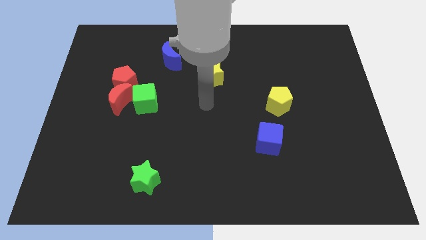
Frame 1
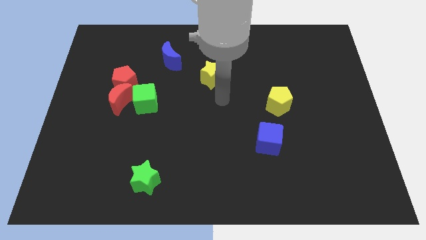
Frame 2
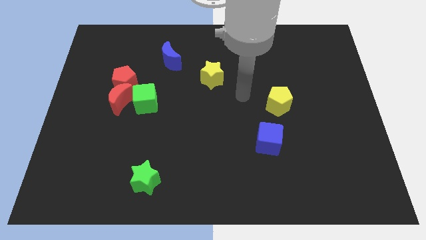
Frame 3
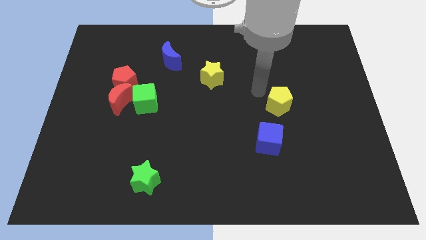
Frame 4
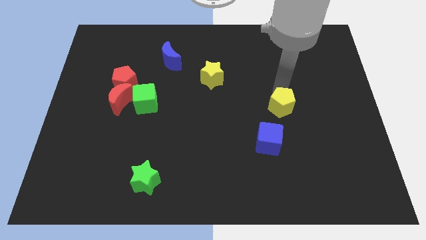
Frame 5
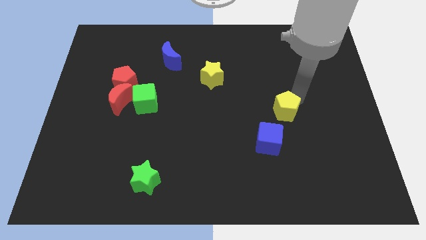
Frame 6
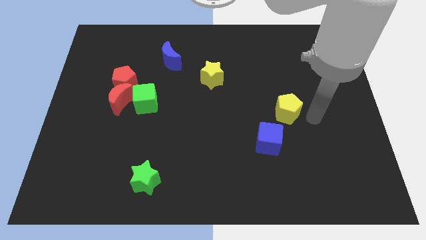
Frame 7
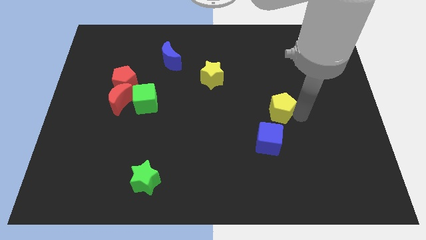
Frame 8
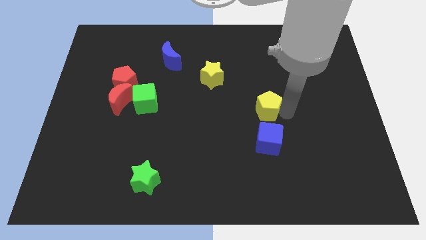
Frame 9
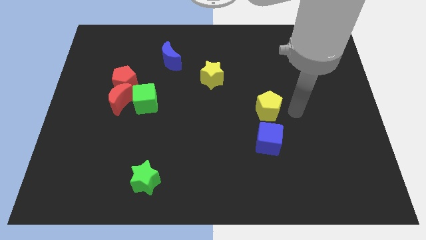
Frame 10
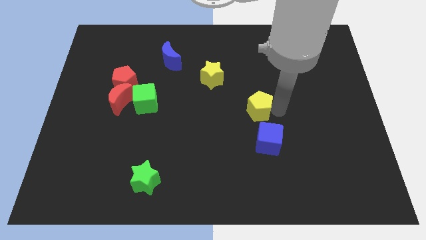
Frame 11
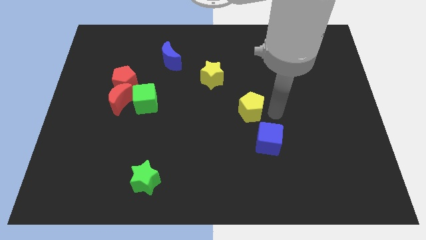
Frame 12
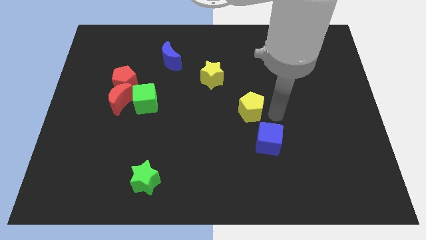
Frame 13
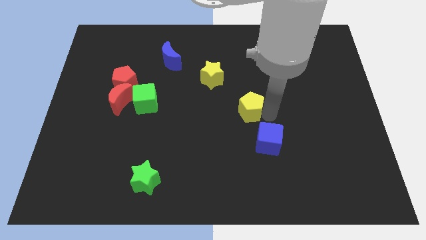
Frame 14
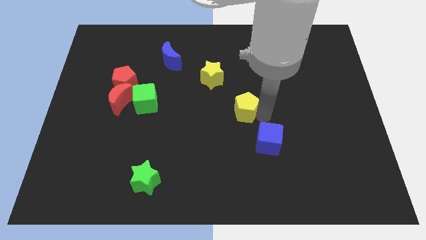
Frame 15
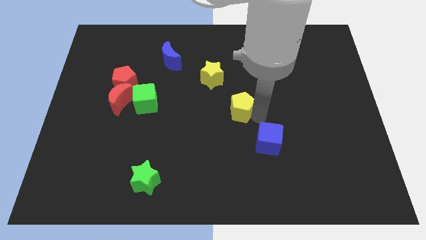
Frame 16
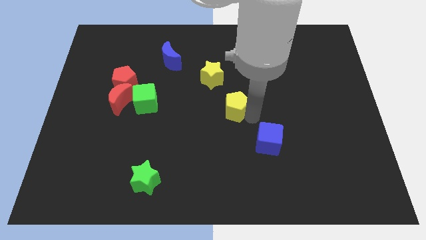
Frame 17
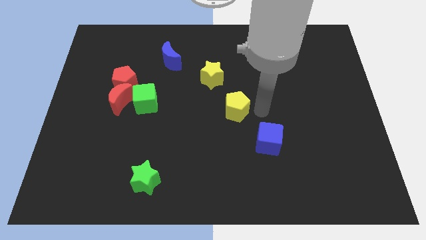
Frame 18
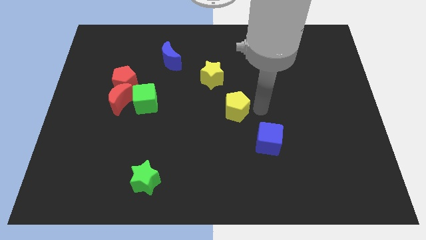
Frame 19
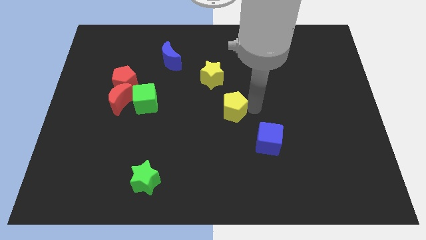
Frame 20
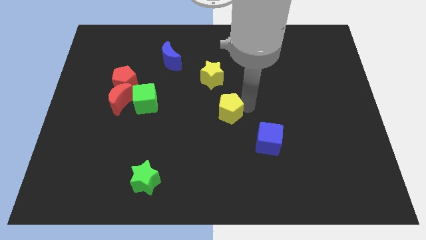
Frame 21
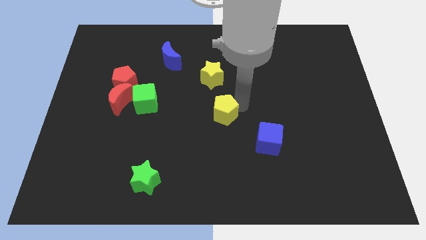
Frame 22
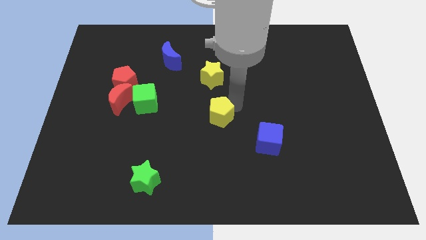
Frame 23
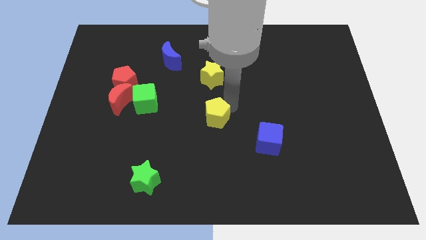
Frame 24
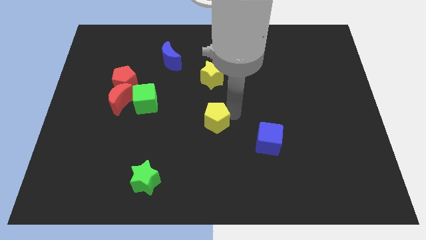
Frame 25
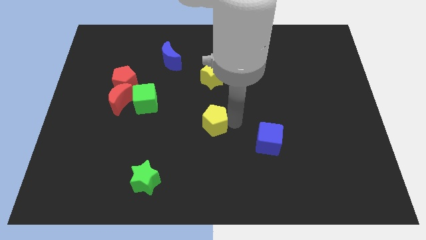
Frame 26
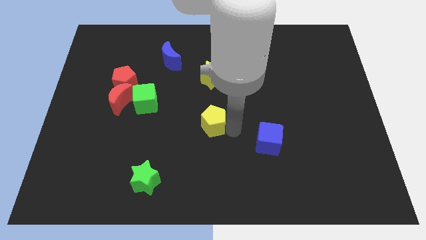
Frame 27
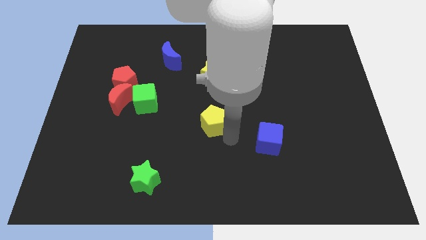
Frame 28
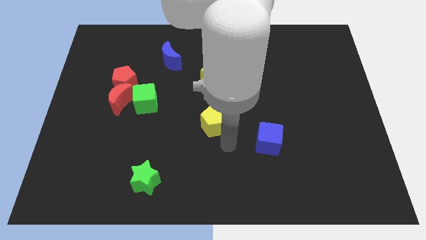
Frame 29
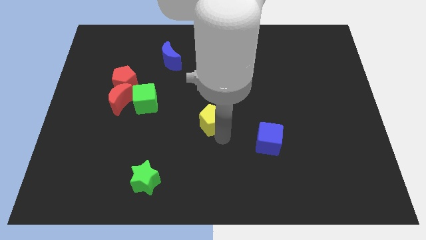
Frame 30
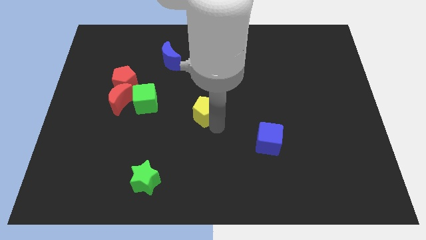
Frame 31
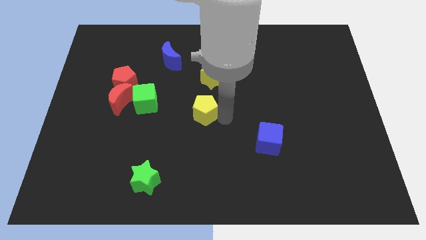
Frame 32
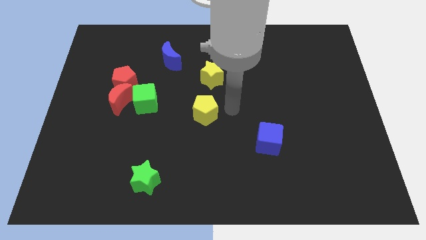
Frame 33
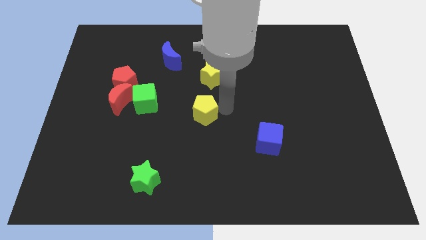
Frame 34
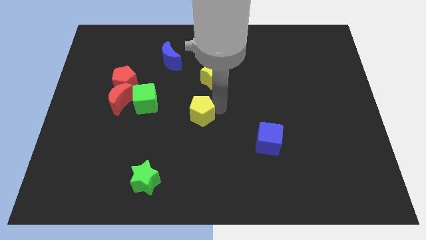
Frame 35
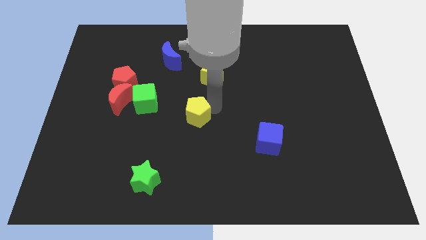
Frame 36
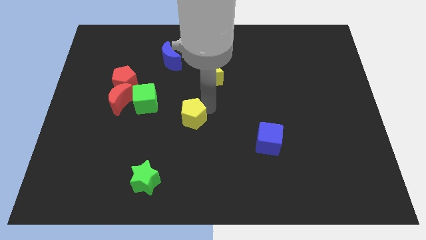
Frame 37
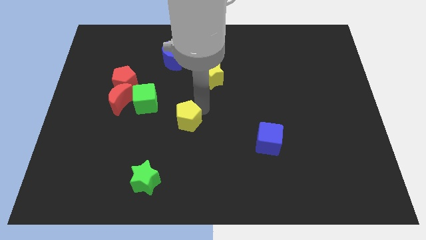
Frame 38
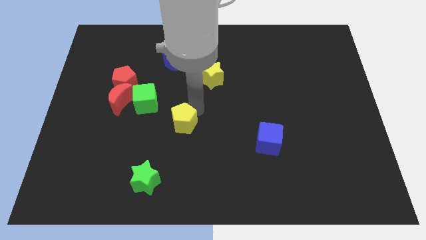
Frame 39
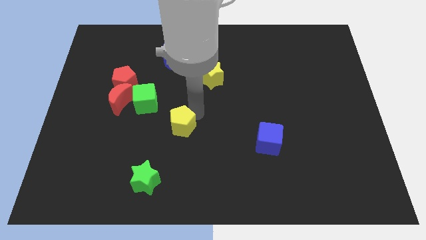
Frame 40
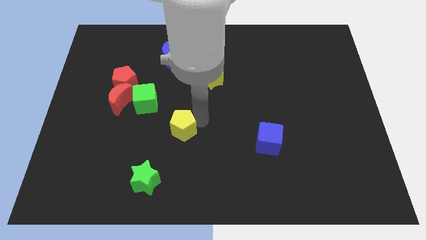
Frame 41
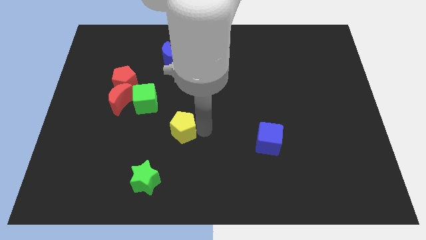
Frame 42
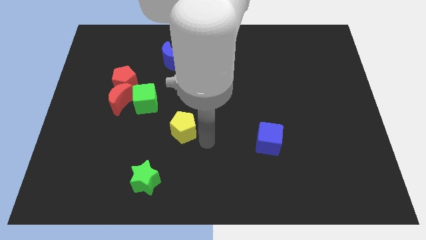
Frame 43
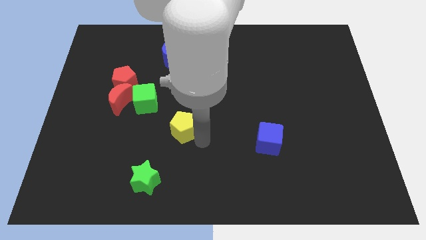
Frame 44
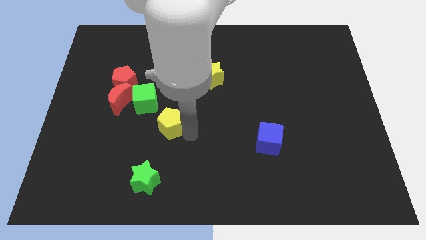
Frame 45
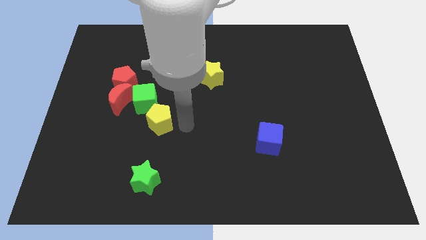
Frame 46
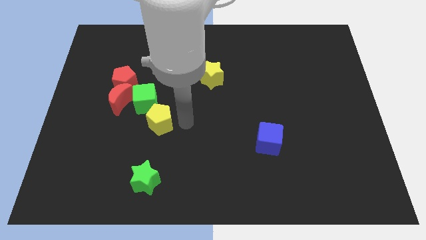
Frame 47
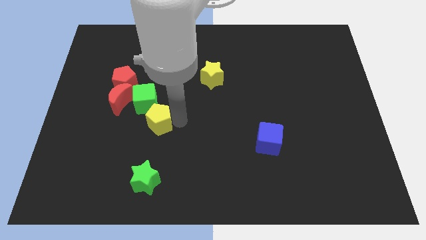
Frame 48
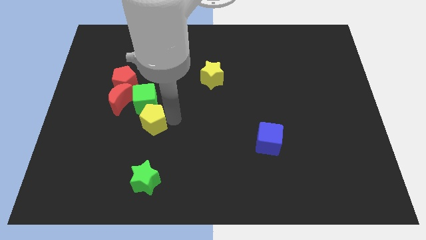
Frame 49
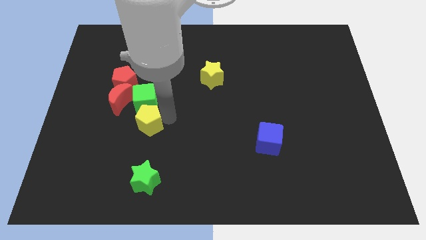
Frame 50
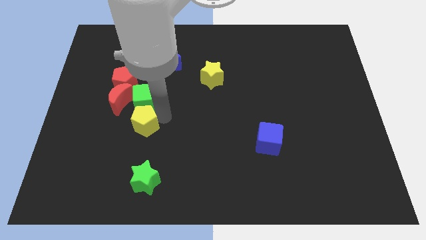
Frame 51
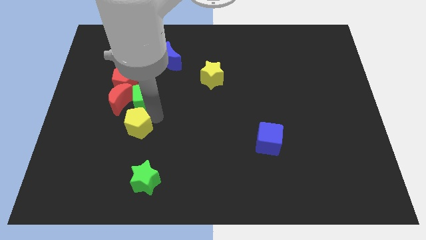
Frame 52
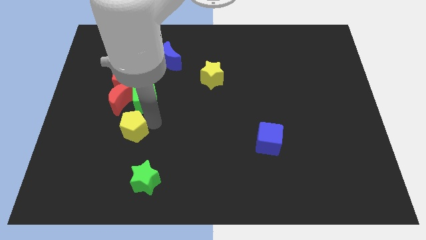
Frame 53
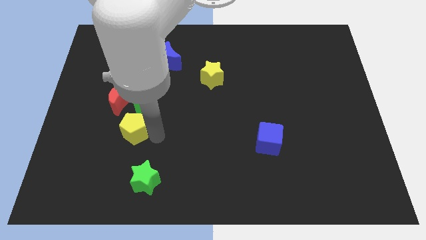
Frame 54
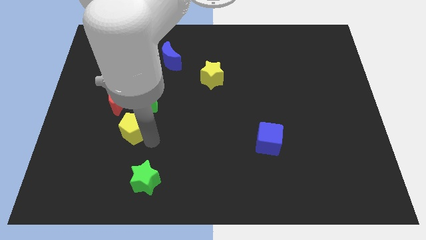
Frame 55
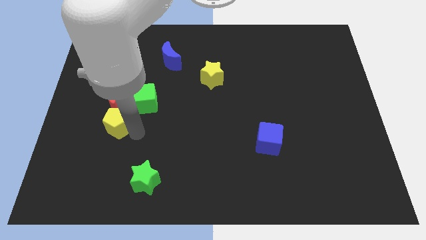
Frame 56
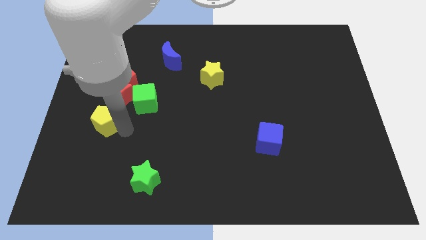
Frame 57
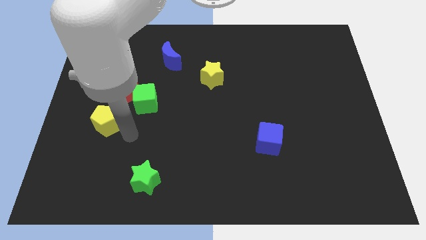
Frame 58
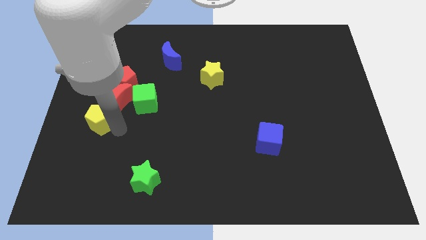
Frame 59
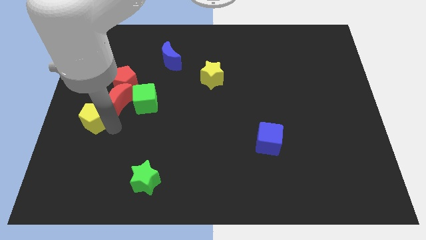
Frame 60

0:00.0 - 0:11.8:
move the yellow pentagon to the left side

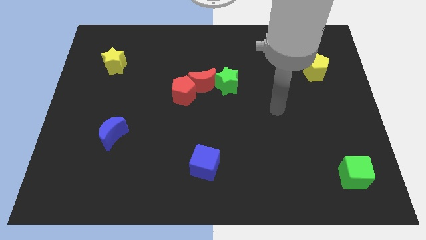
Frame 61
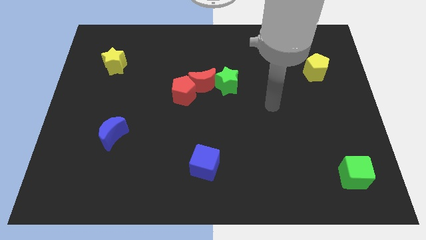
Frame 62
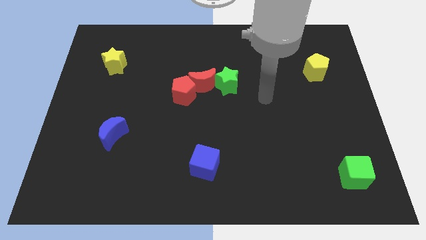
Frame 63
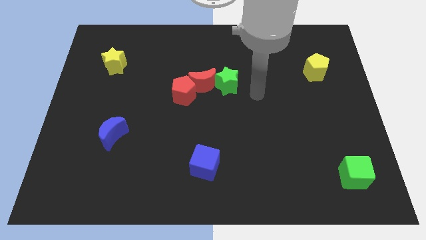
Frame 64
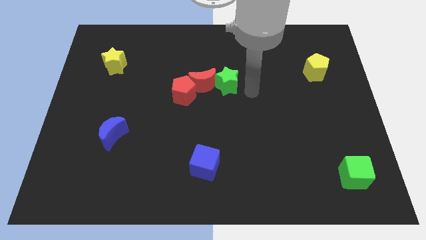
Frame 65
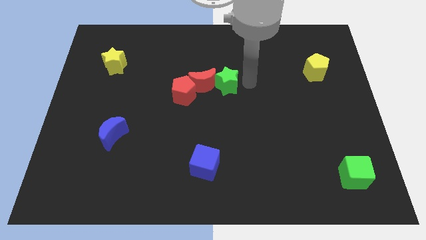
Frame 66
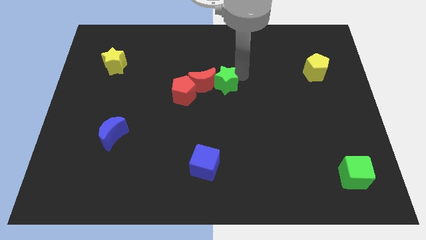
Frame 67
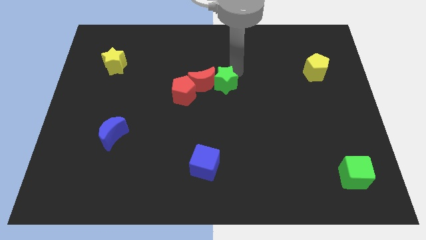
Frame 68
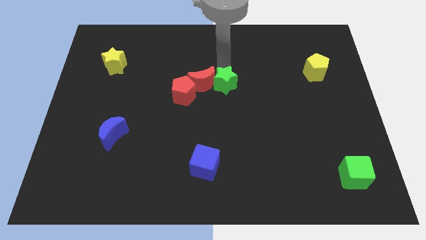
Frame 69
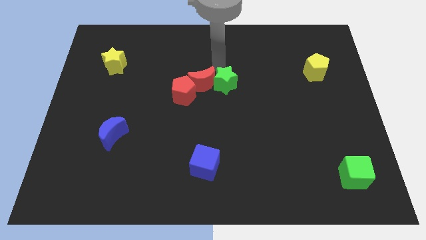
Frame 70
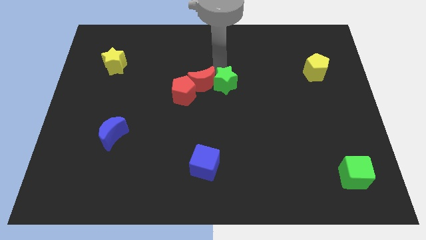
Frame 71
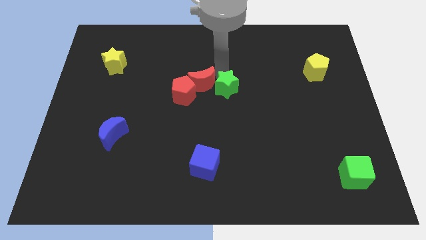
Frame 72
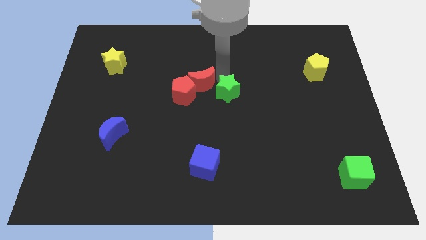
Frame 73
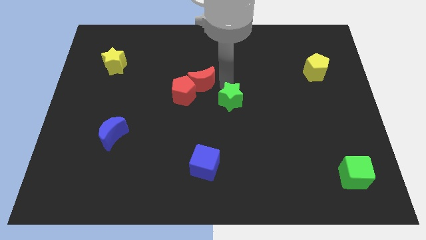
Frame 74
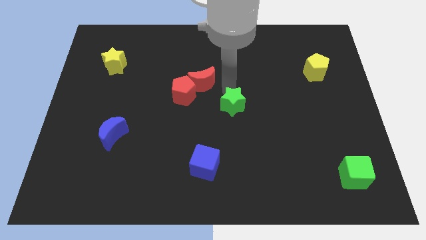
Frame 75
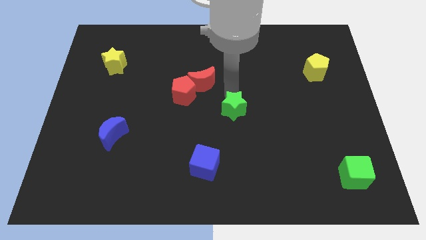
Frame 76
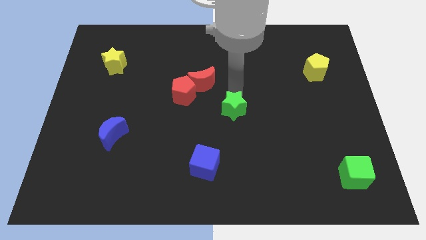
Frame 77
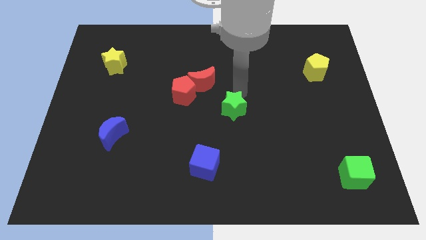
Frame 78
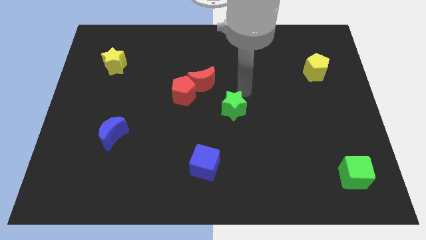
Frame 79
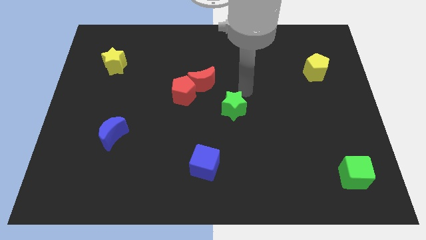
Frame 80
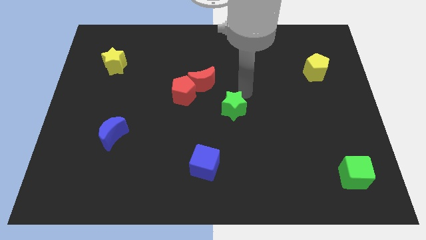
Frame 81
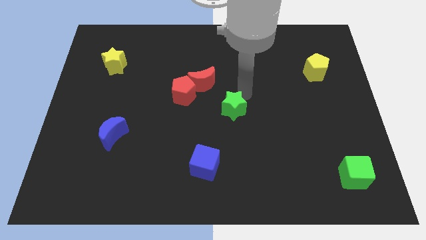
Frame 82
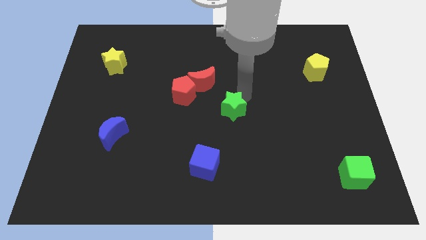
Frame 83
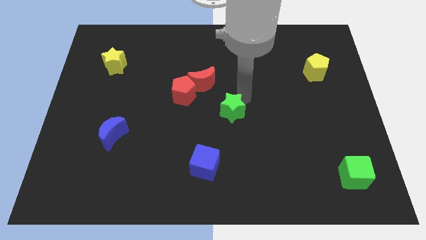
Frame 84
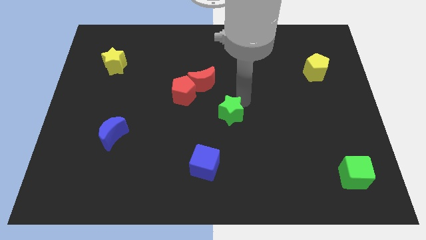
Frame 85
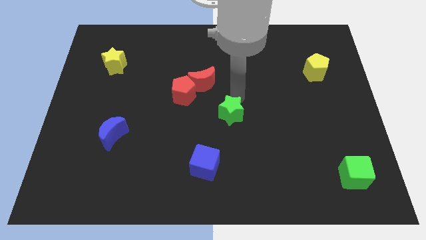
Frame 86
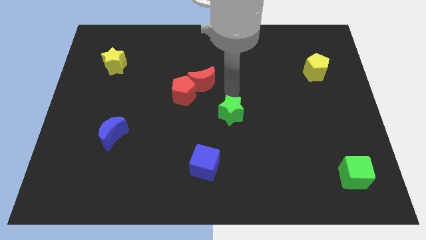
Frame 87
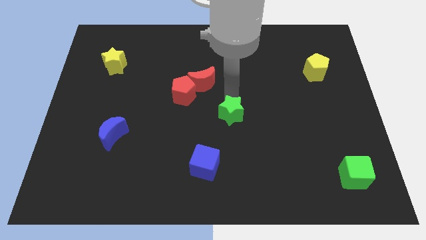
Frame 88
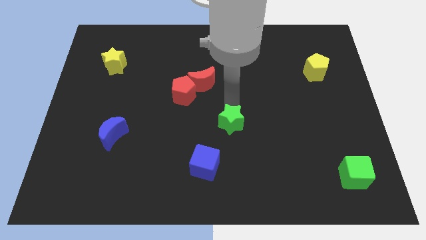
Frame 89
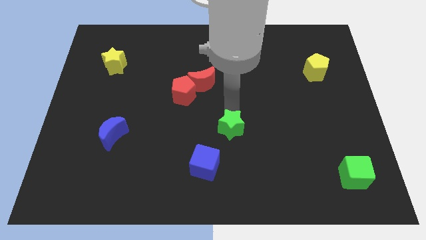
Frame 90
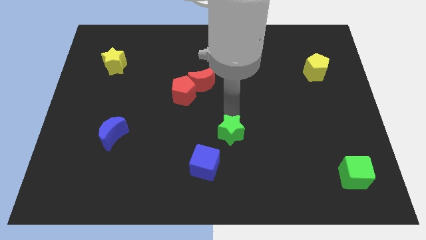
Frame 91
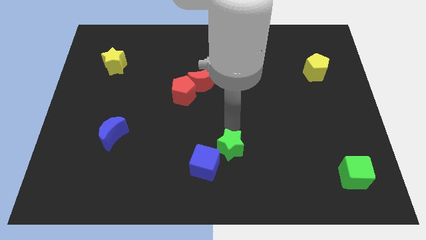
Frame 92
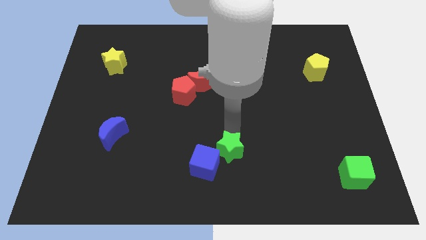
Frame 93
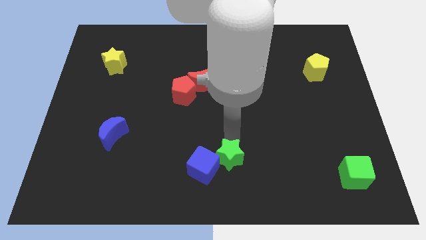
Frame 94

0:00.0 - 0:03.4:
push the green star to the bottom
